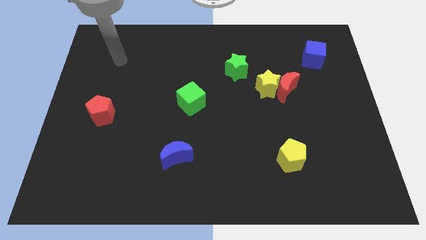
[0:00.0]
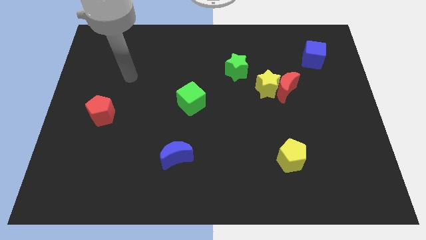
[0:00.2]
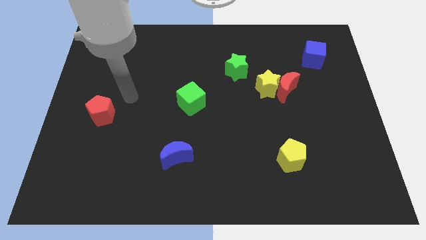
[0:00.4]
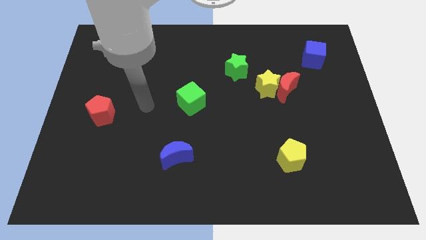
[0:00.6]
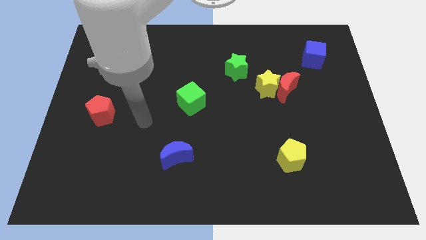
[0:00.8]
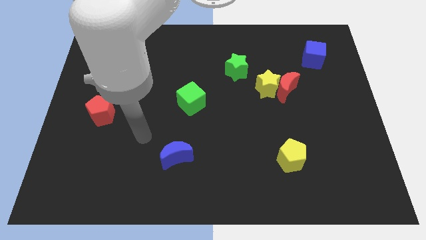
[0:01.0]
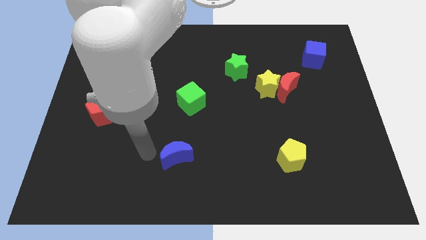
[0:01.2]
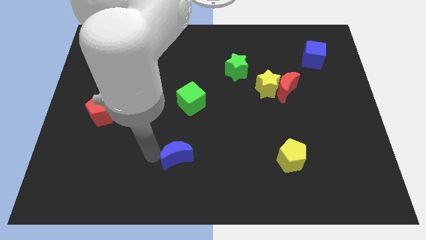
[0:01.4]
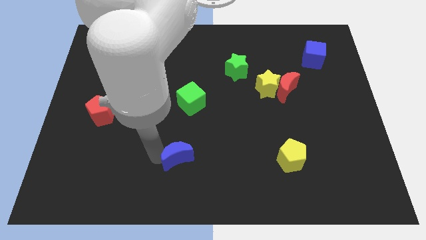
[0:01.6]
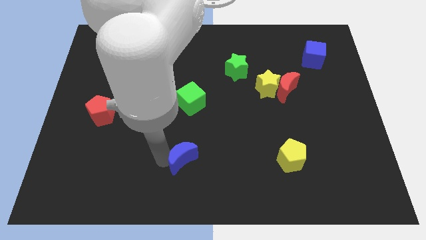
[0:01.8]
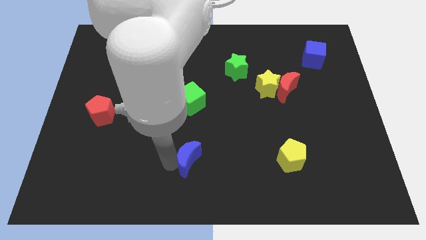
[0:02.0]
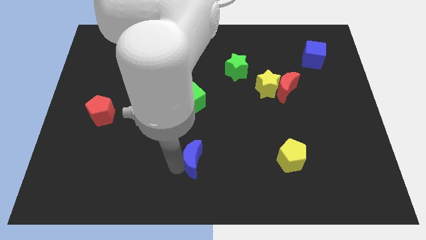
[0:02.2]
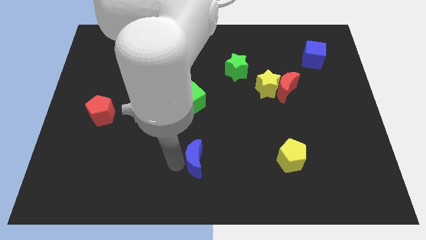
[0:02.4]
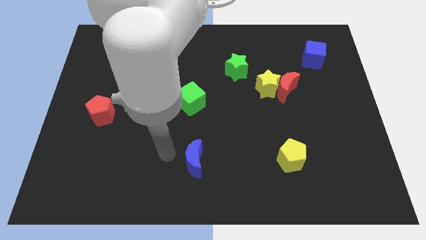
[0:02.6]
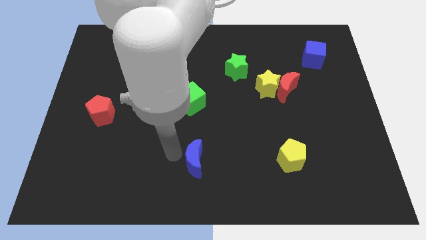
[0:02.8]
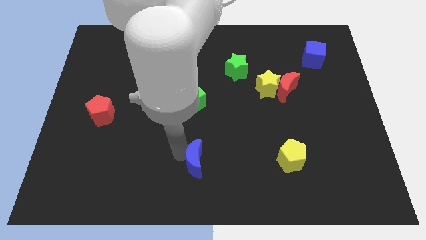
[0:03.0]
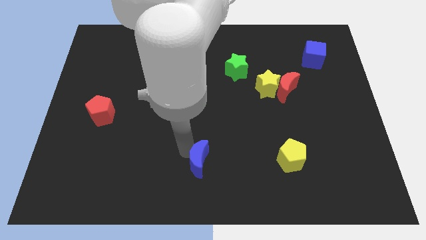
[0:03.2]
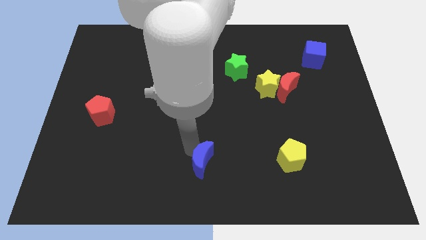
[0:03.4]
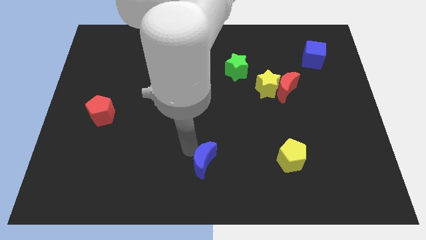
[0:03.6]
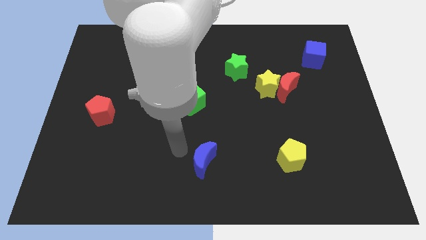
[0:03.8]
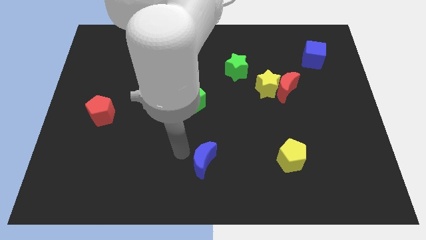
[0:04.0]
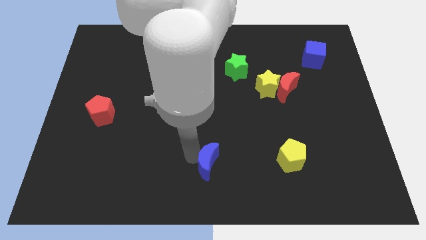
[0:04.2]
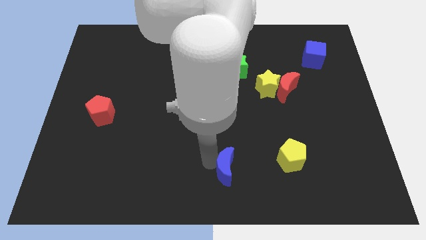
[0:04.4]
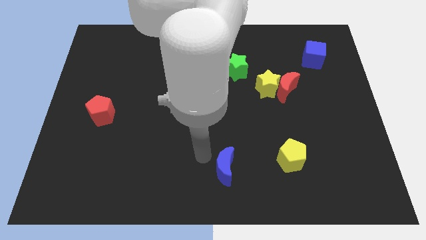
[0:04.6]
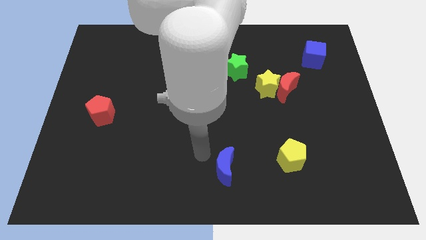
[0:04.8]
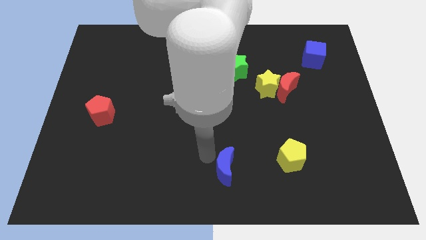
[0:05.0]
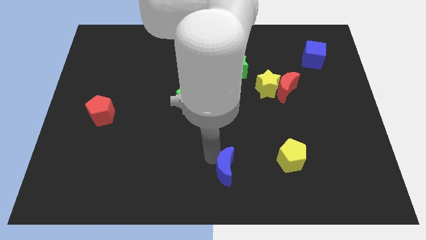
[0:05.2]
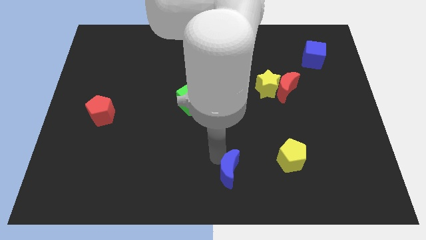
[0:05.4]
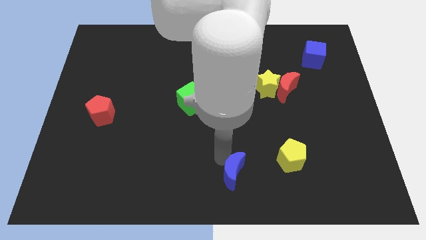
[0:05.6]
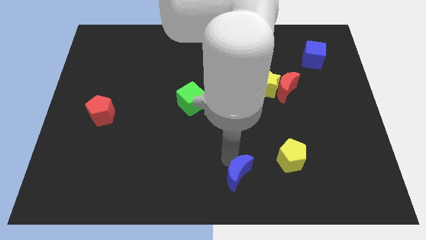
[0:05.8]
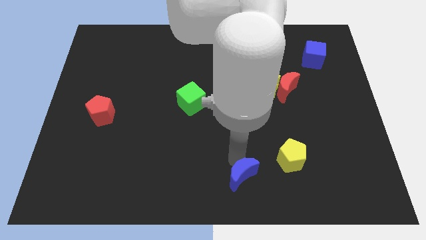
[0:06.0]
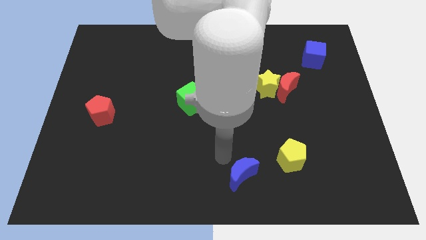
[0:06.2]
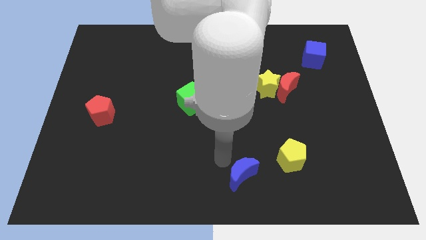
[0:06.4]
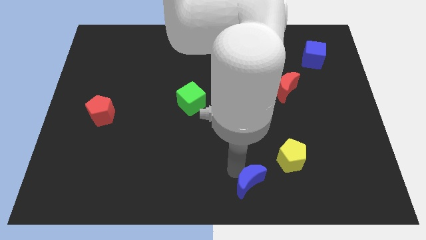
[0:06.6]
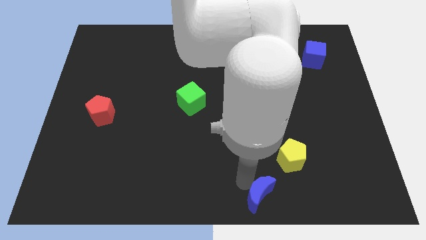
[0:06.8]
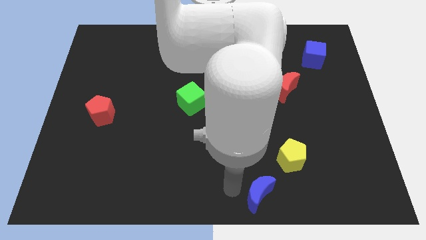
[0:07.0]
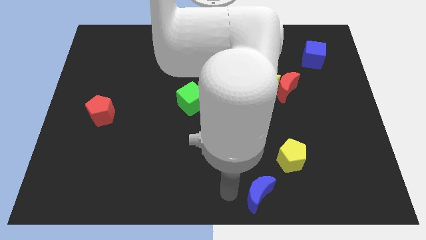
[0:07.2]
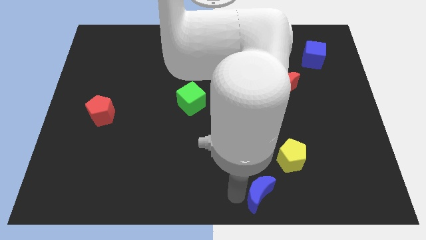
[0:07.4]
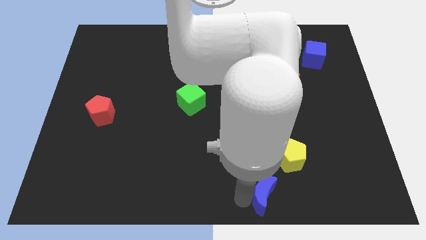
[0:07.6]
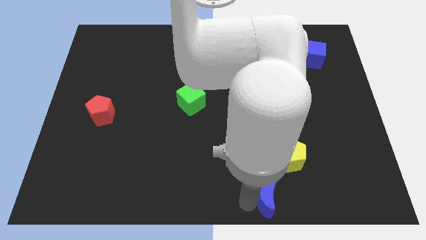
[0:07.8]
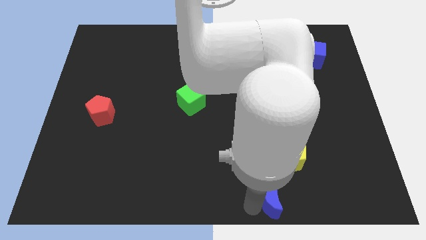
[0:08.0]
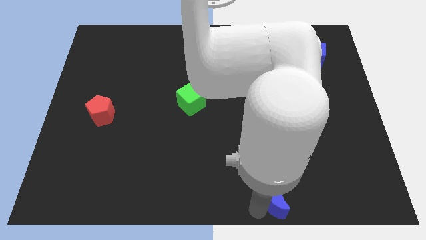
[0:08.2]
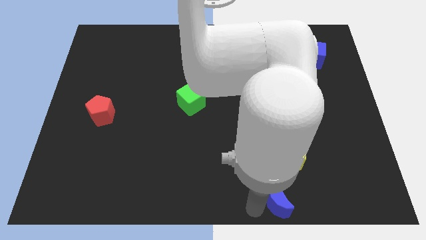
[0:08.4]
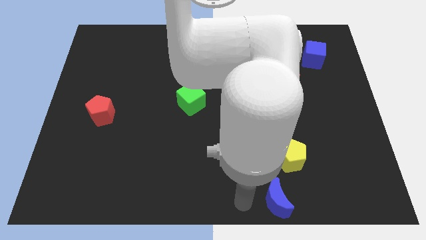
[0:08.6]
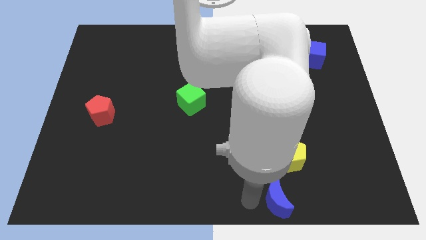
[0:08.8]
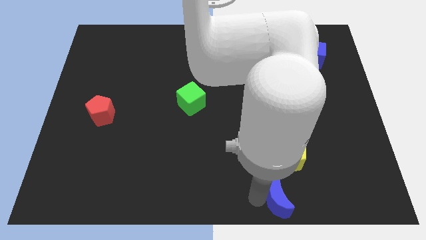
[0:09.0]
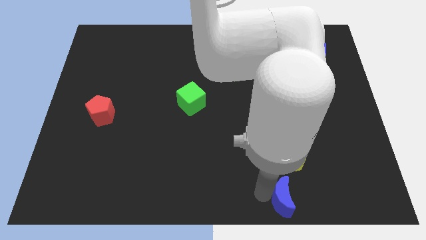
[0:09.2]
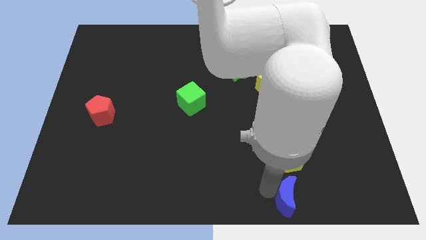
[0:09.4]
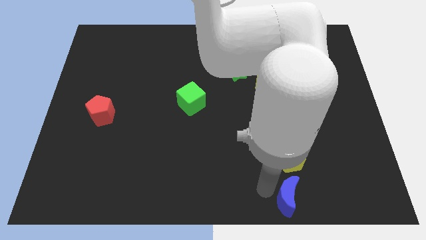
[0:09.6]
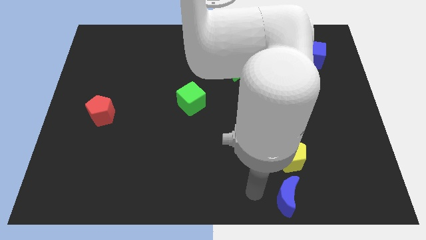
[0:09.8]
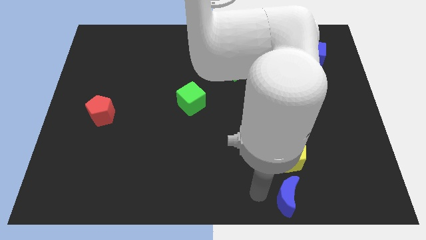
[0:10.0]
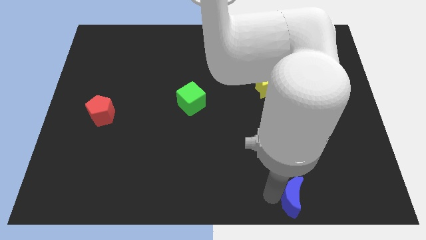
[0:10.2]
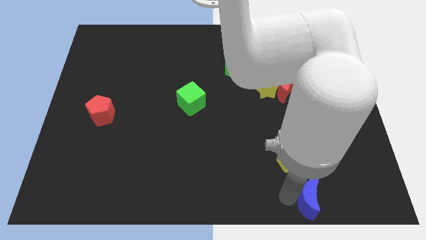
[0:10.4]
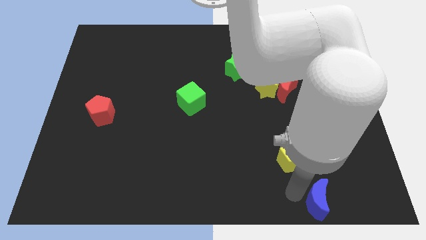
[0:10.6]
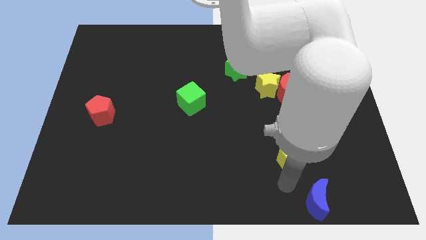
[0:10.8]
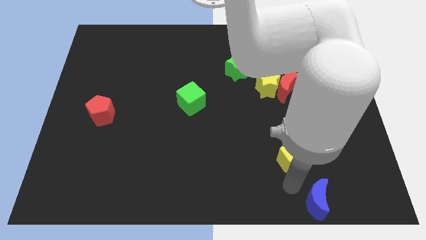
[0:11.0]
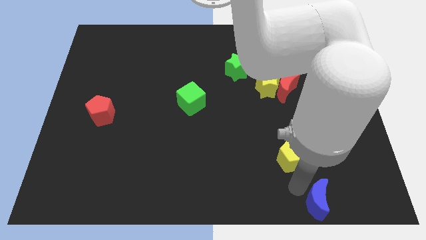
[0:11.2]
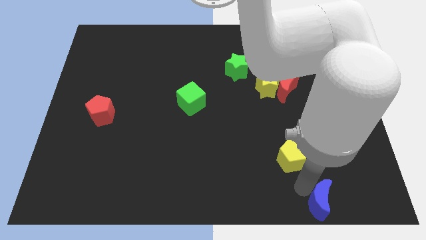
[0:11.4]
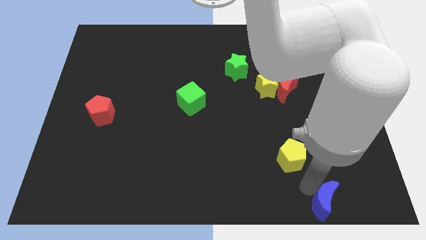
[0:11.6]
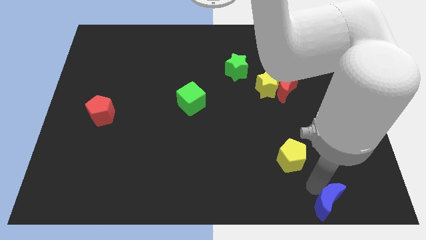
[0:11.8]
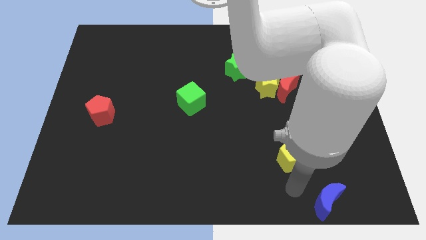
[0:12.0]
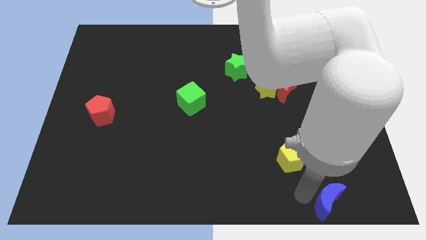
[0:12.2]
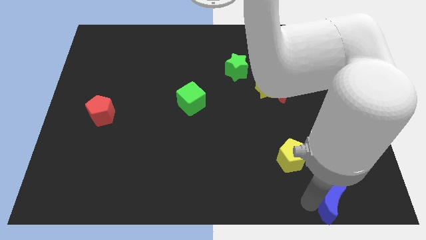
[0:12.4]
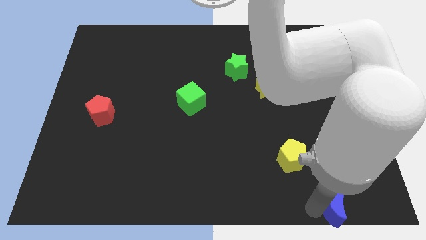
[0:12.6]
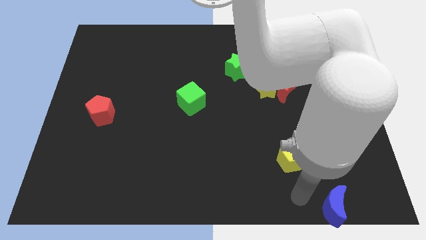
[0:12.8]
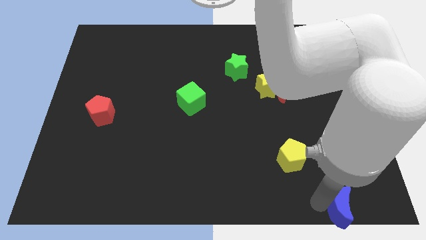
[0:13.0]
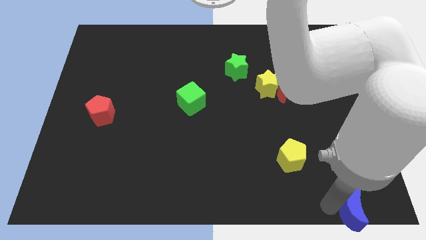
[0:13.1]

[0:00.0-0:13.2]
put the blue moon to the bottom right of the board
